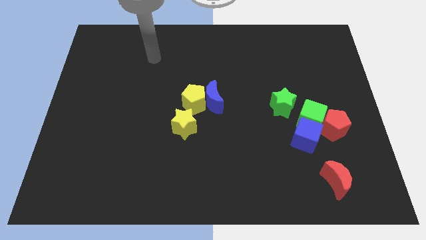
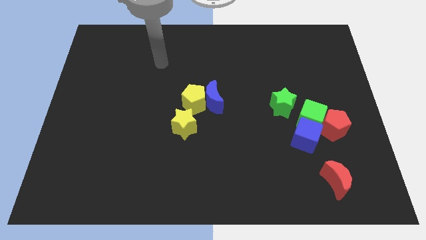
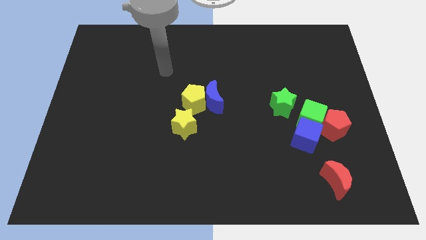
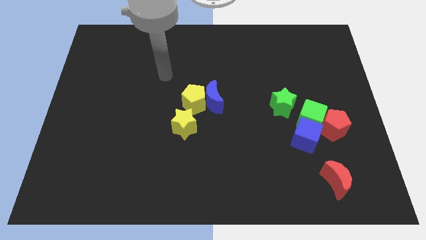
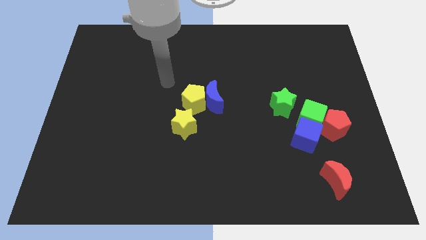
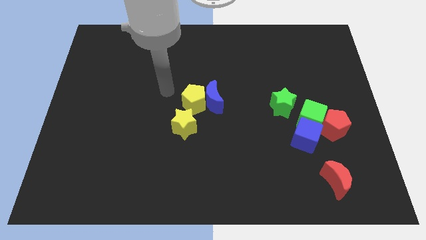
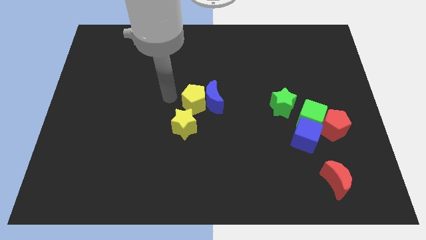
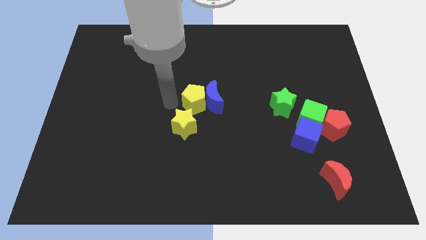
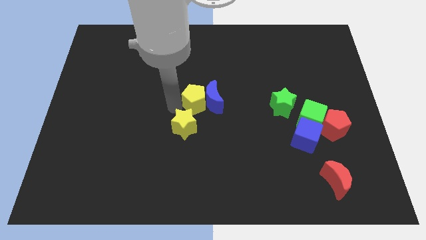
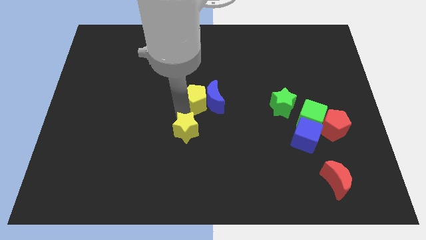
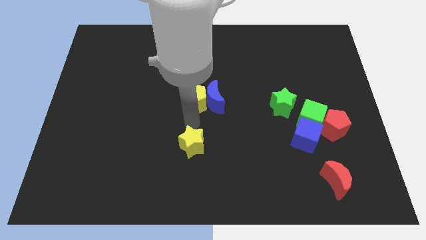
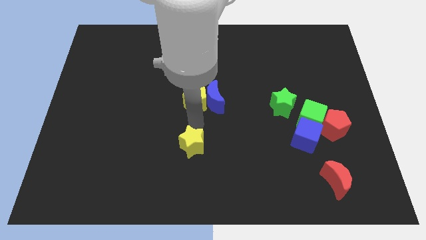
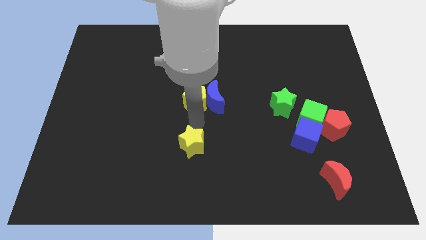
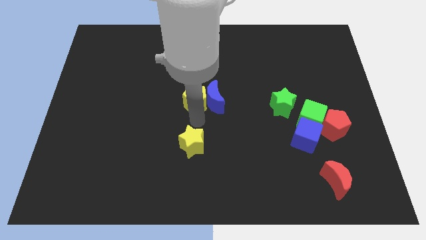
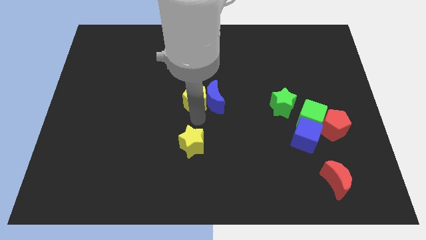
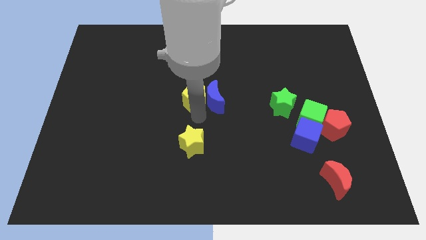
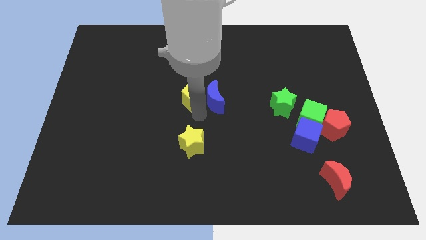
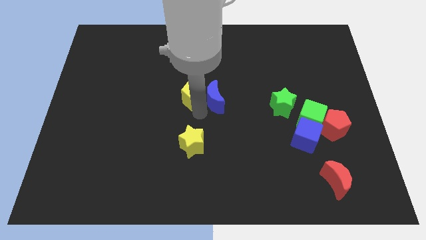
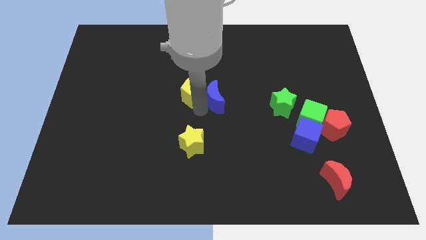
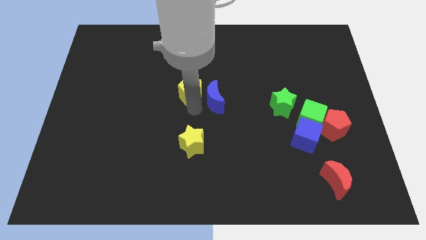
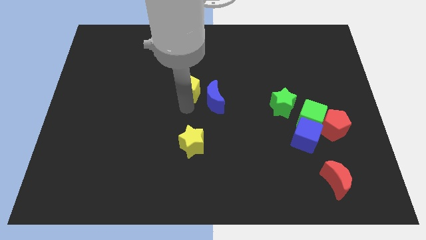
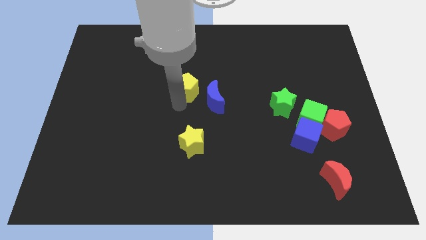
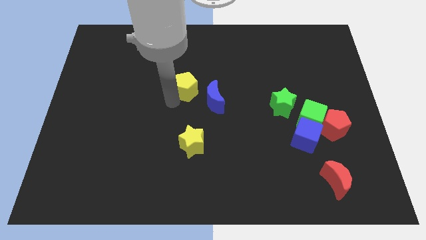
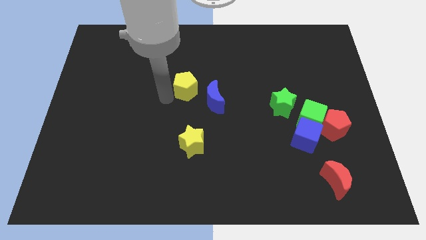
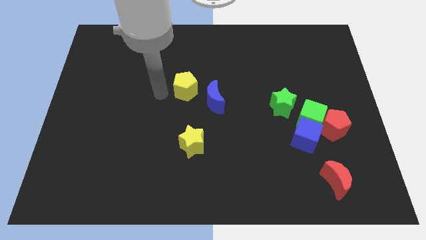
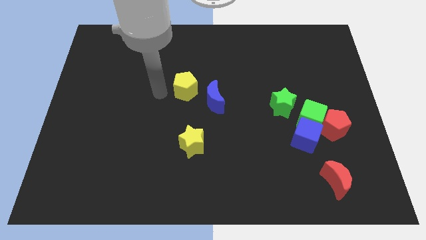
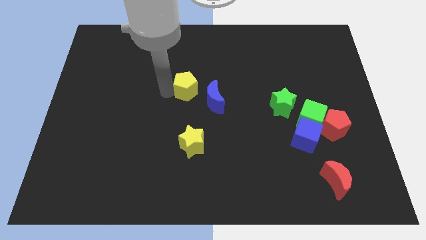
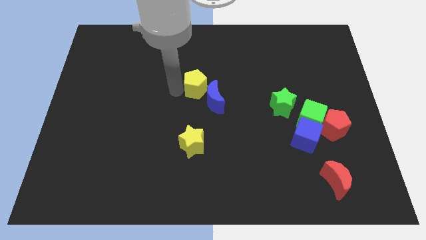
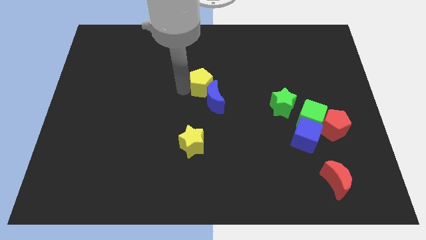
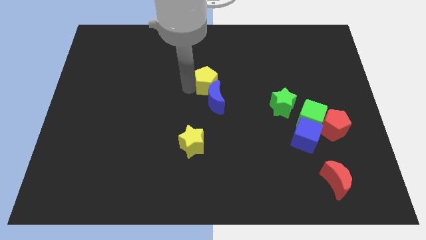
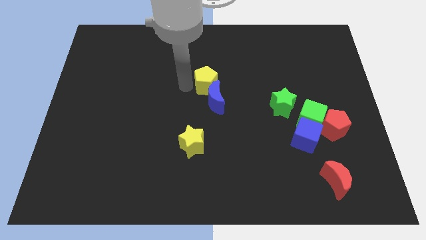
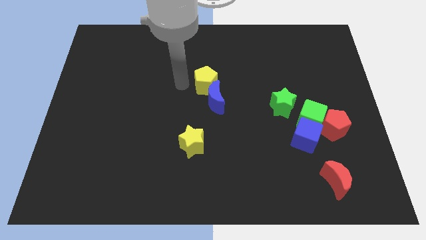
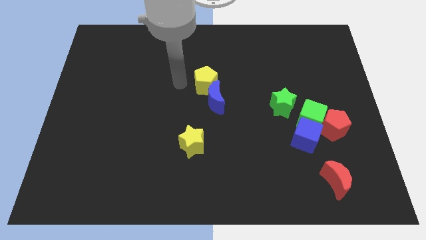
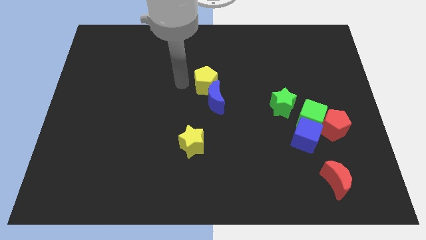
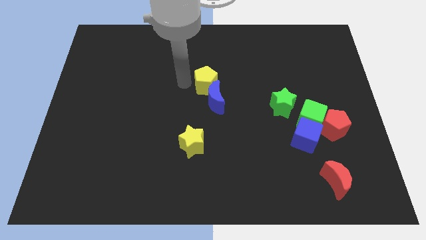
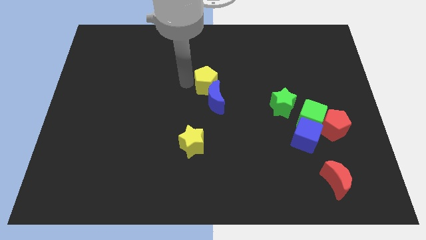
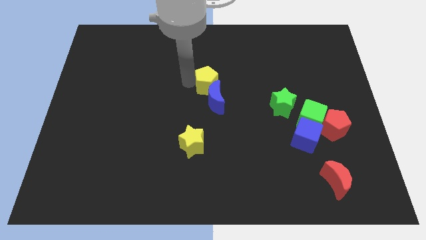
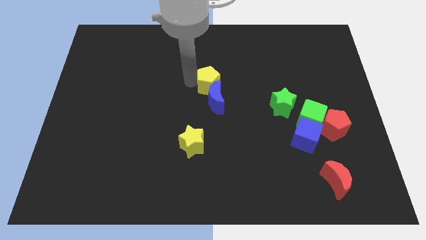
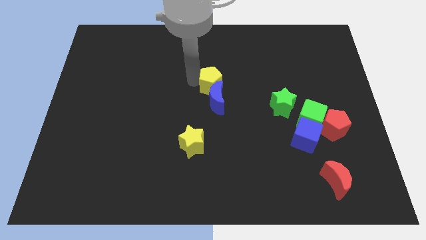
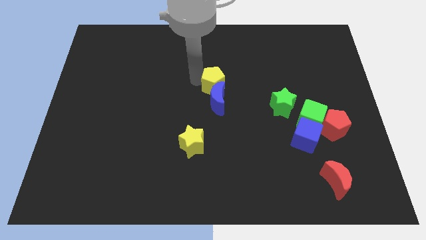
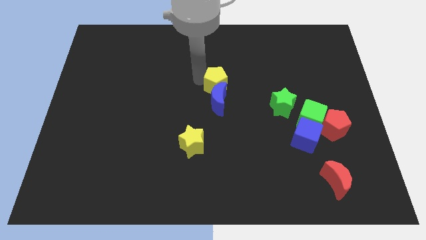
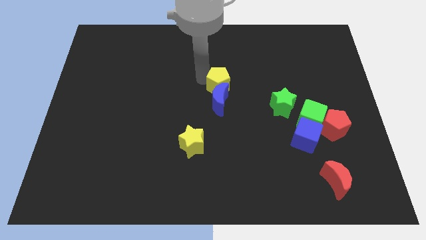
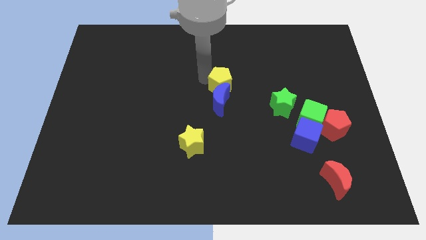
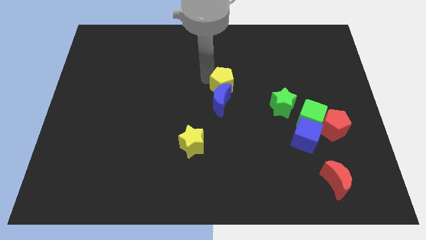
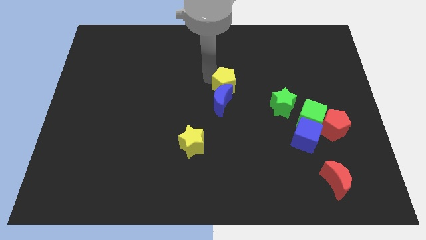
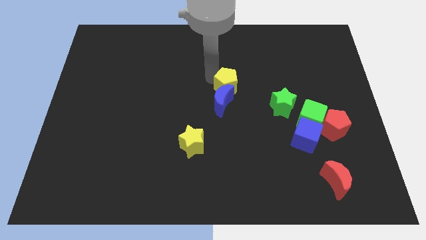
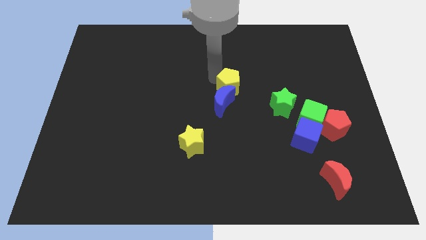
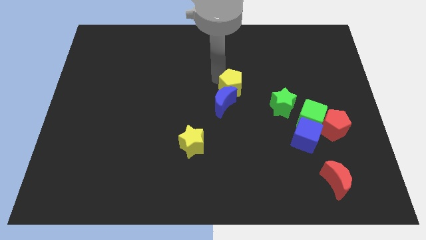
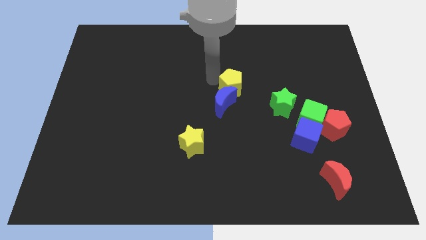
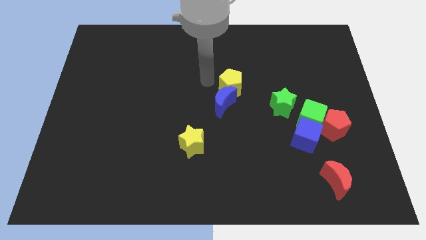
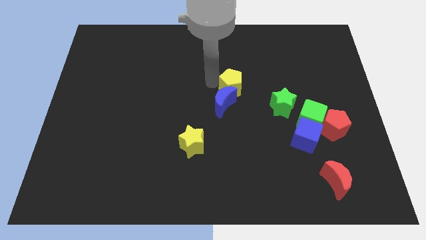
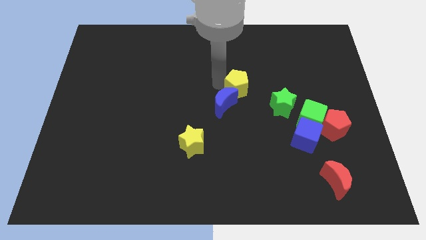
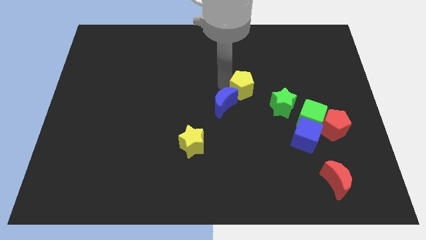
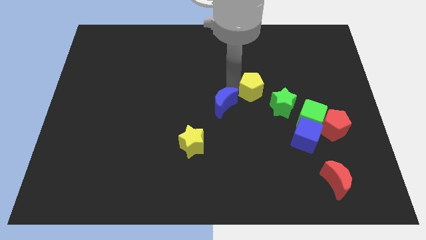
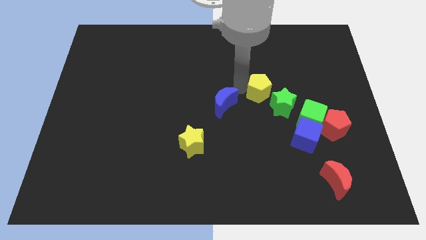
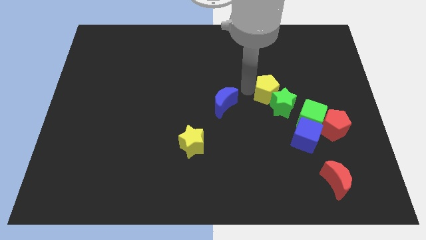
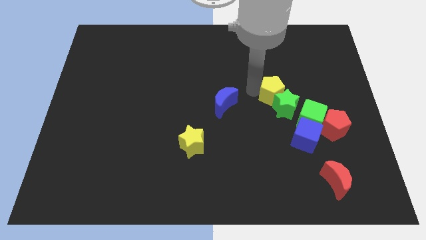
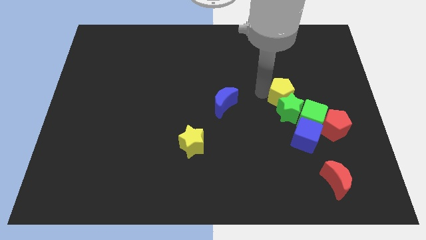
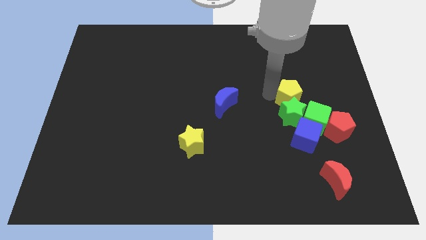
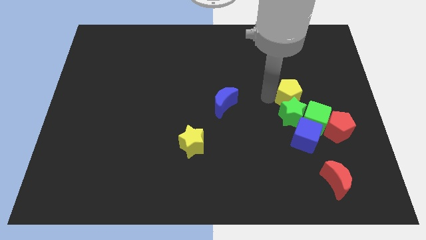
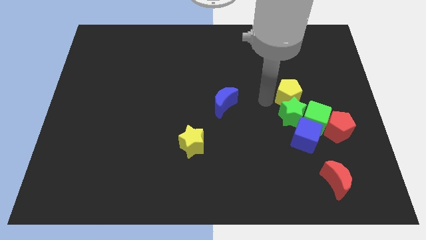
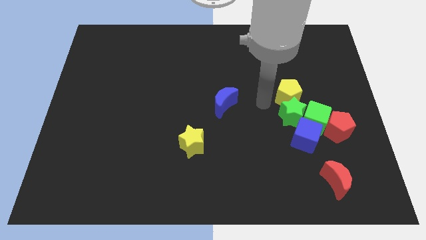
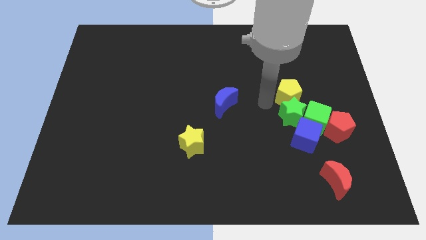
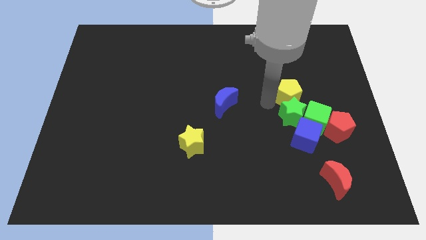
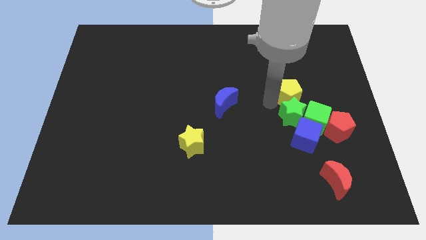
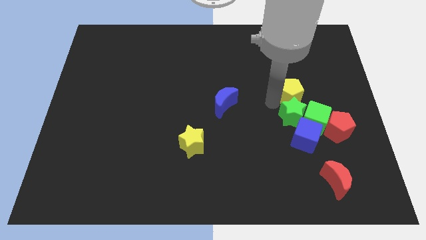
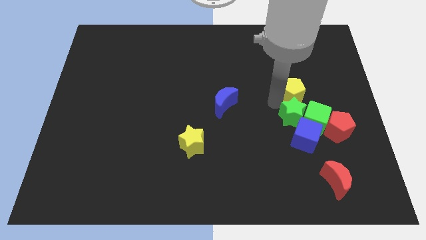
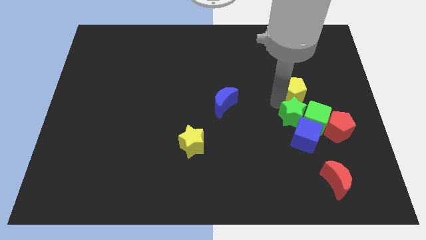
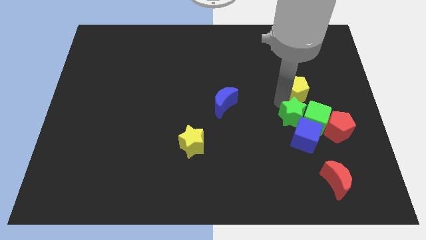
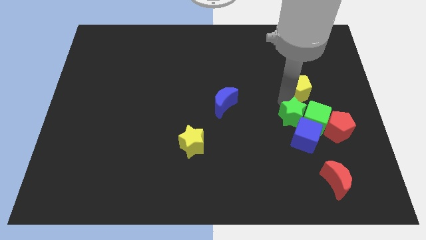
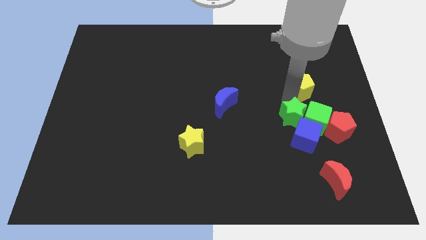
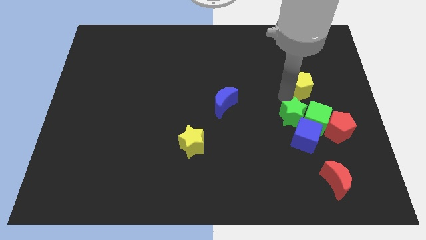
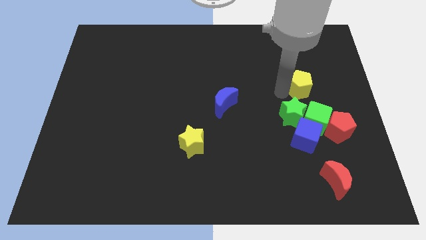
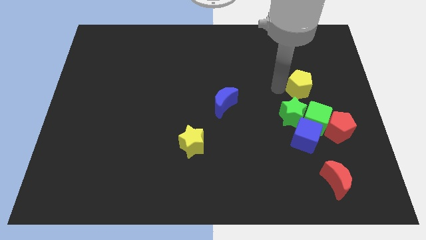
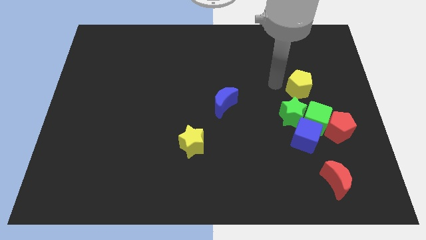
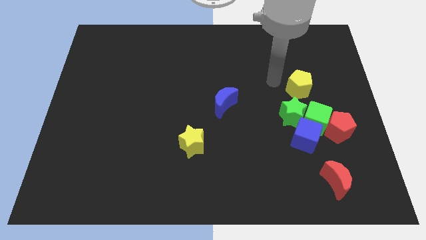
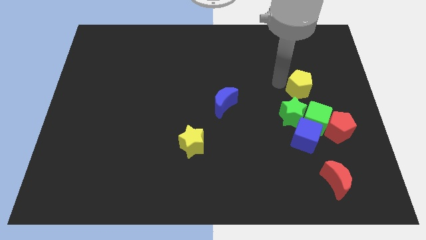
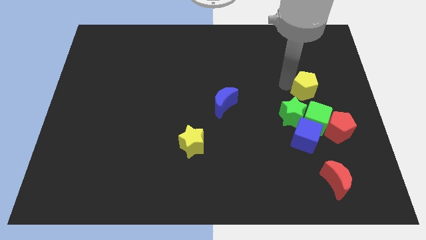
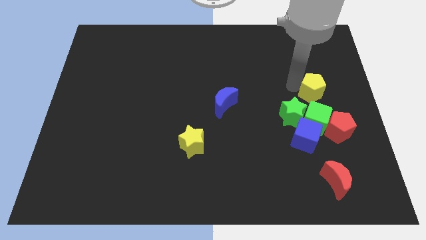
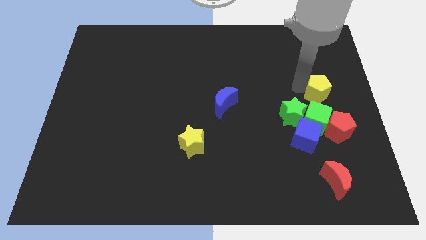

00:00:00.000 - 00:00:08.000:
put the yellow pentagon to the right side of the board
